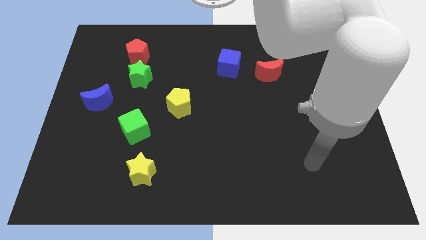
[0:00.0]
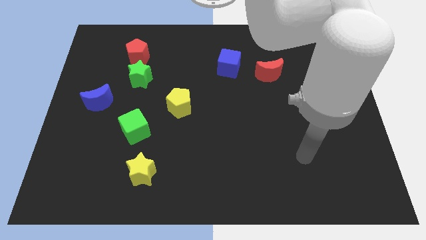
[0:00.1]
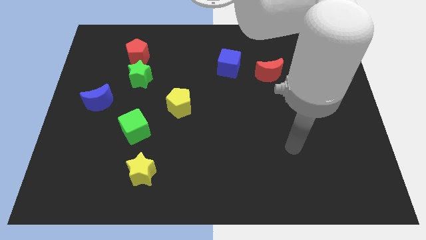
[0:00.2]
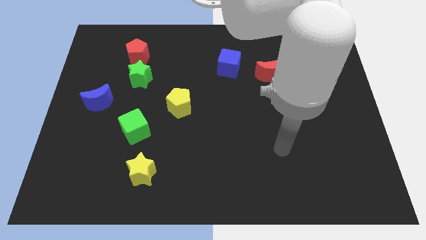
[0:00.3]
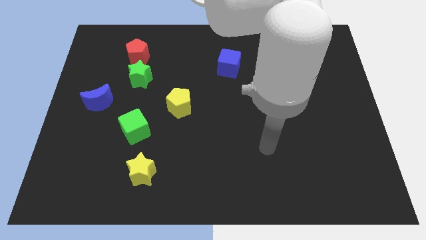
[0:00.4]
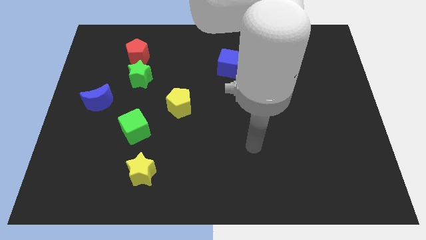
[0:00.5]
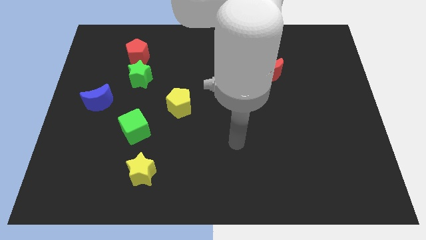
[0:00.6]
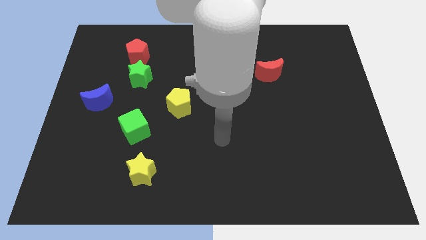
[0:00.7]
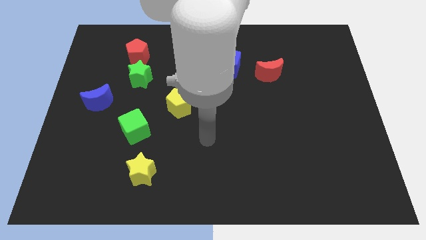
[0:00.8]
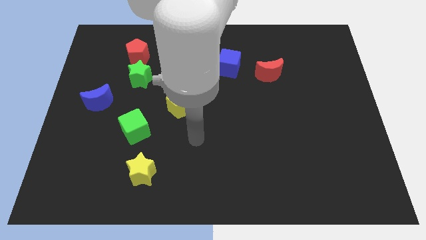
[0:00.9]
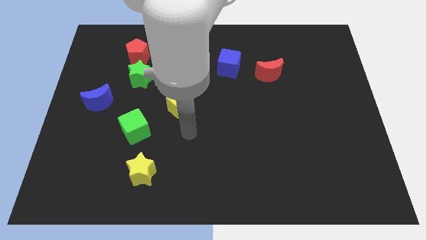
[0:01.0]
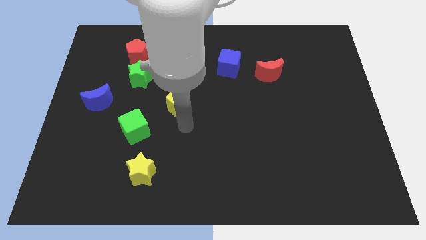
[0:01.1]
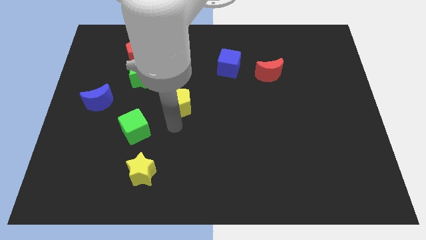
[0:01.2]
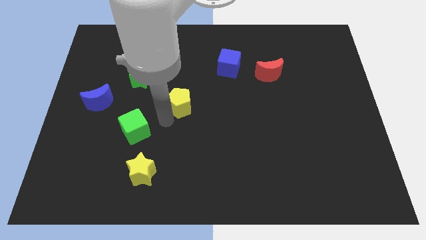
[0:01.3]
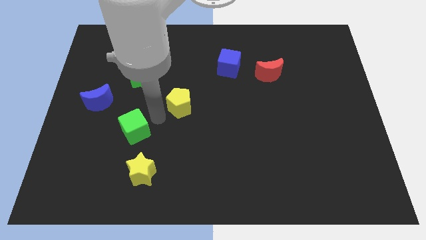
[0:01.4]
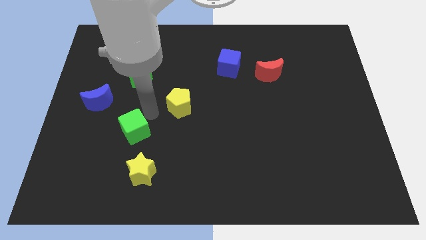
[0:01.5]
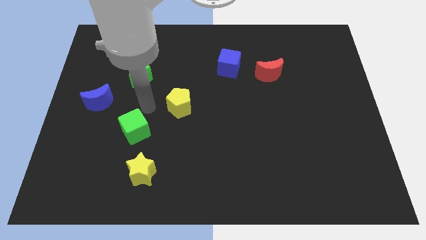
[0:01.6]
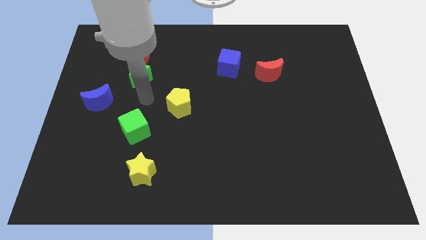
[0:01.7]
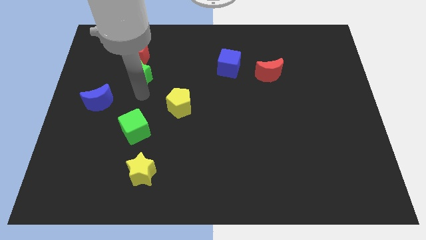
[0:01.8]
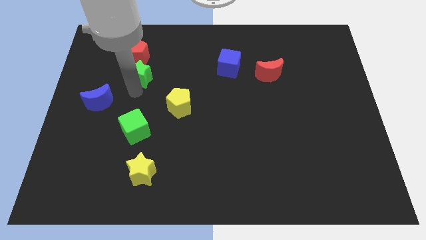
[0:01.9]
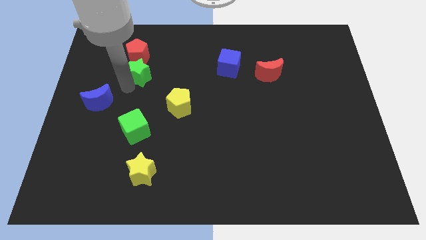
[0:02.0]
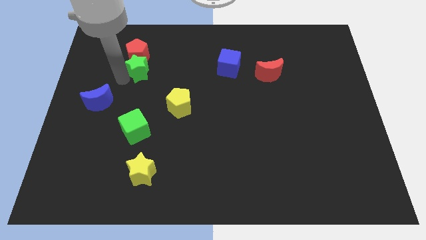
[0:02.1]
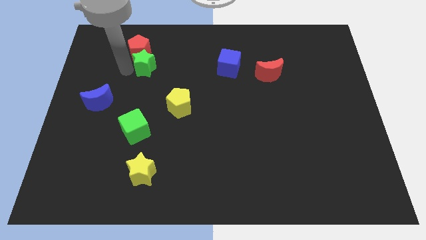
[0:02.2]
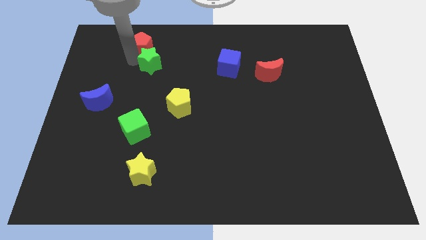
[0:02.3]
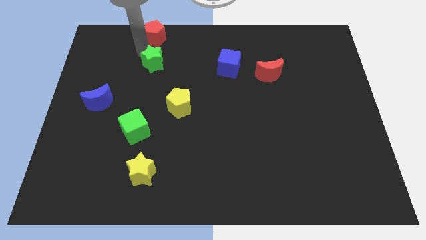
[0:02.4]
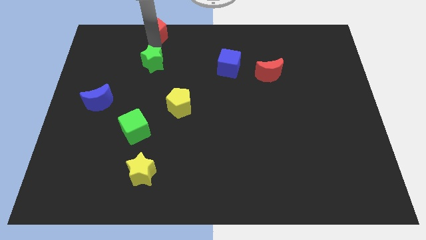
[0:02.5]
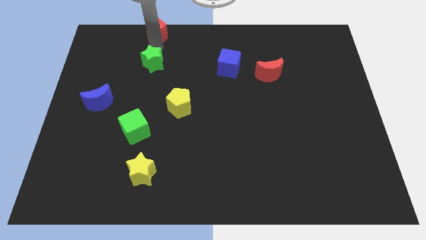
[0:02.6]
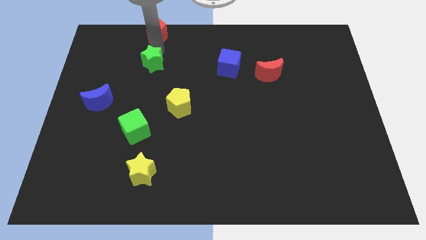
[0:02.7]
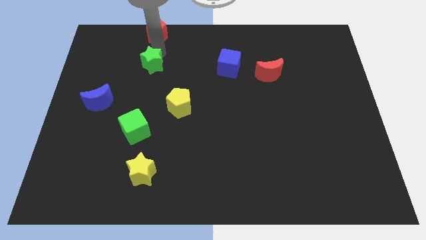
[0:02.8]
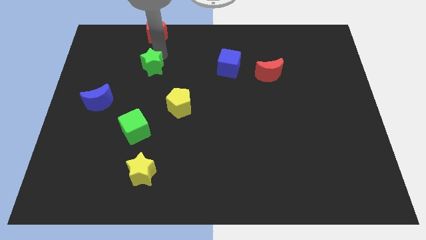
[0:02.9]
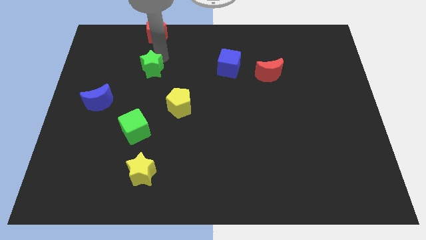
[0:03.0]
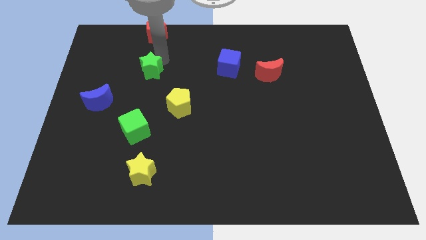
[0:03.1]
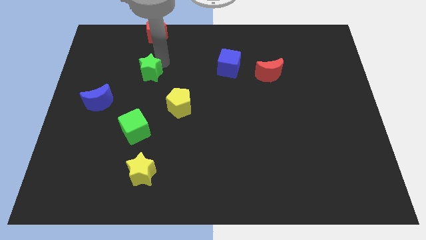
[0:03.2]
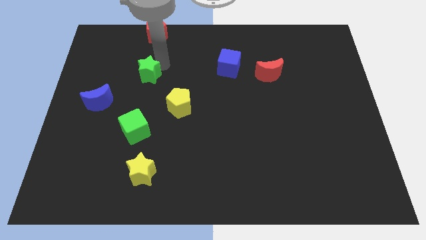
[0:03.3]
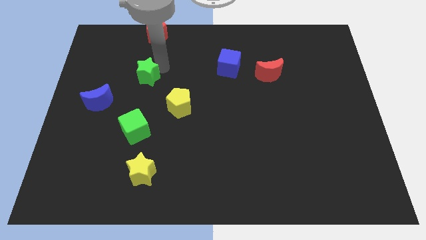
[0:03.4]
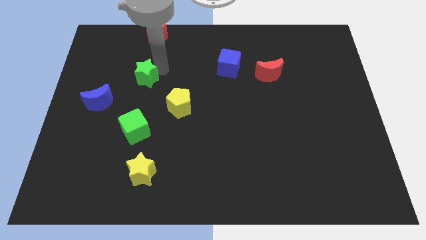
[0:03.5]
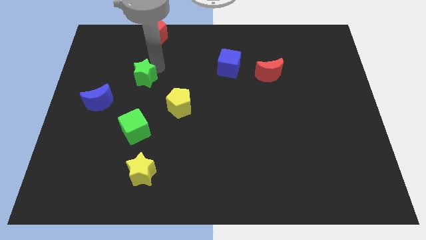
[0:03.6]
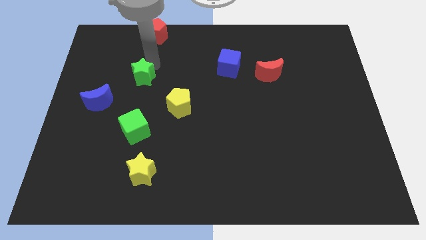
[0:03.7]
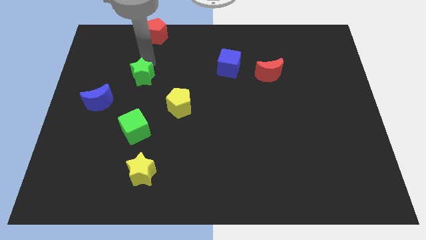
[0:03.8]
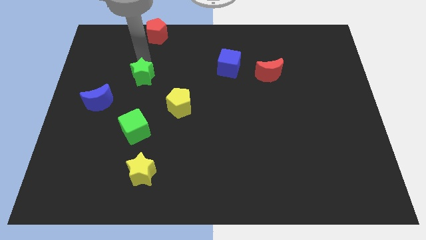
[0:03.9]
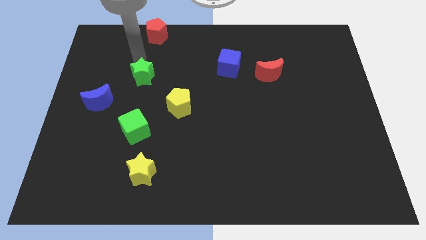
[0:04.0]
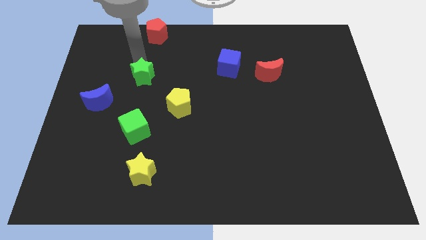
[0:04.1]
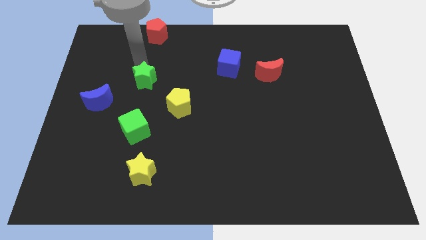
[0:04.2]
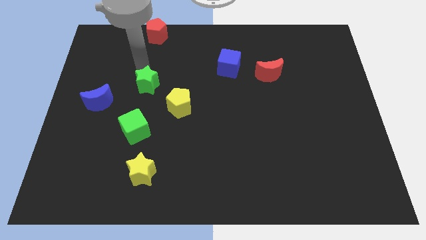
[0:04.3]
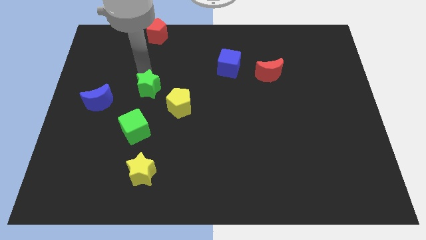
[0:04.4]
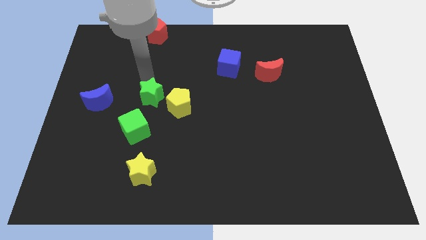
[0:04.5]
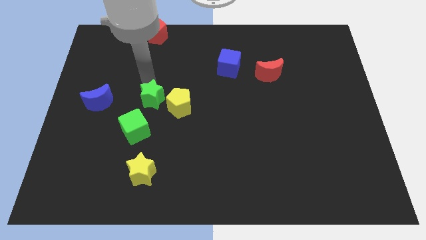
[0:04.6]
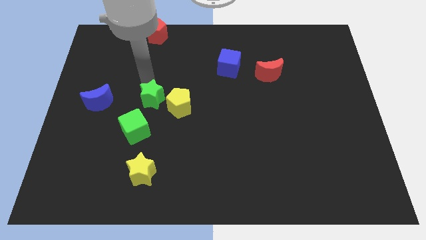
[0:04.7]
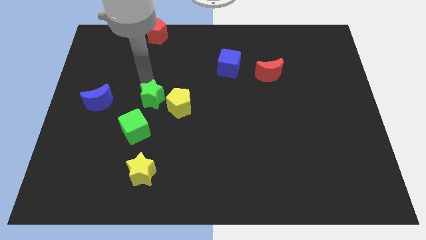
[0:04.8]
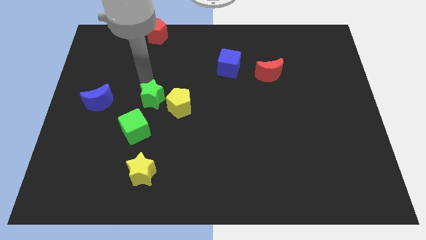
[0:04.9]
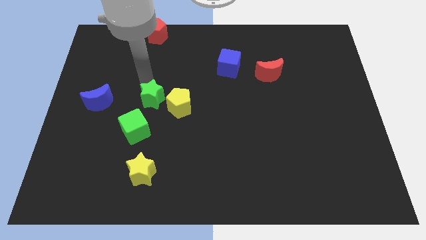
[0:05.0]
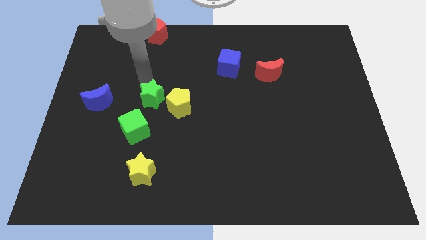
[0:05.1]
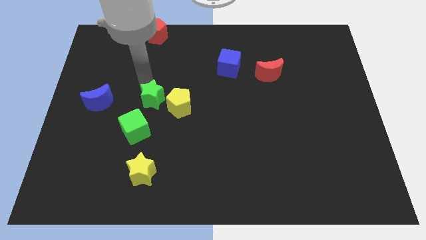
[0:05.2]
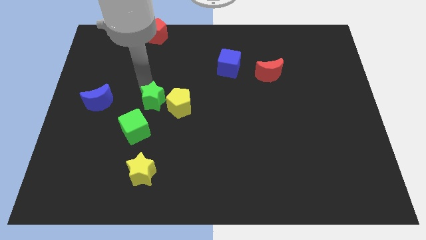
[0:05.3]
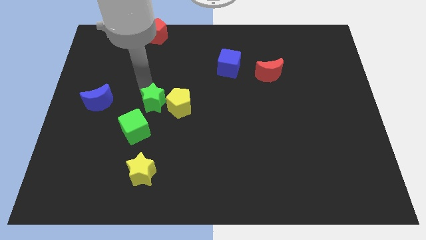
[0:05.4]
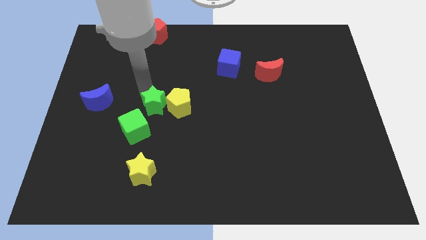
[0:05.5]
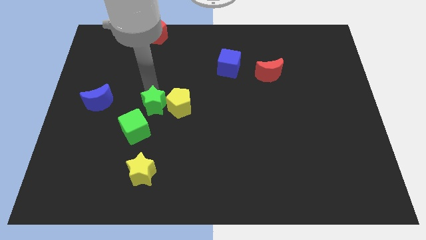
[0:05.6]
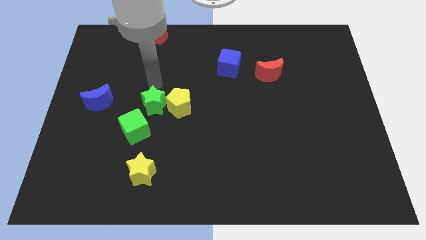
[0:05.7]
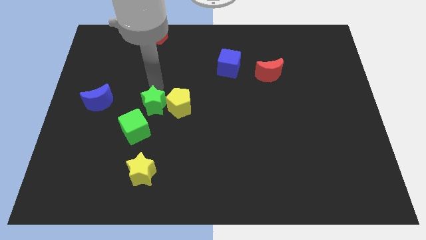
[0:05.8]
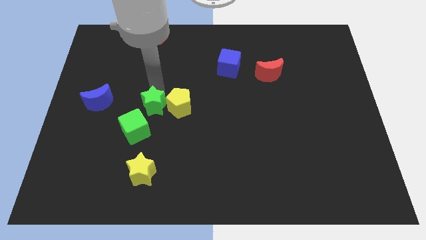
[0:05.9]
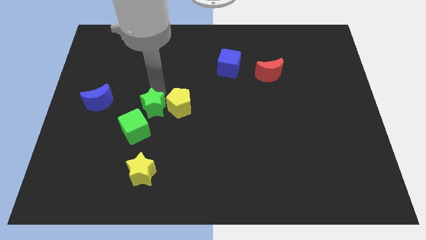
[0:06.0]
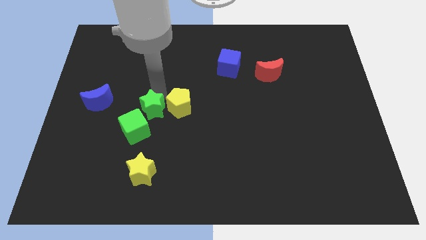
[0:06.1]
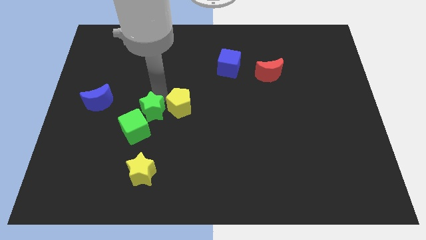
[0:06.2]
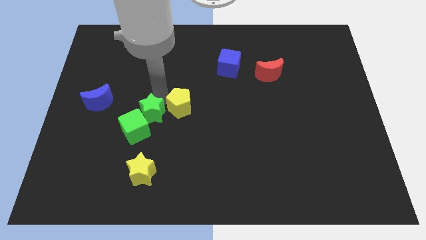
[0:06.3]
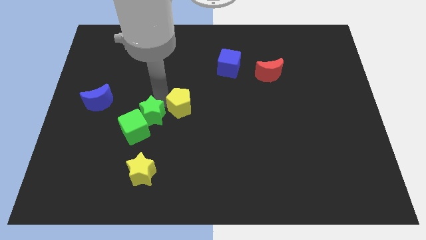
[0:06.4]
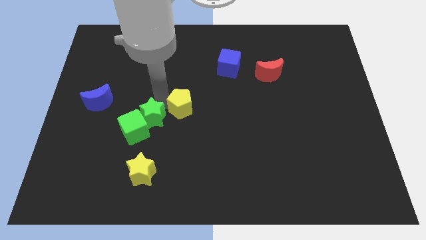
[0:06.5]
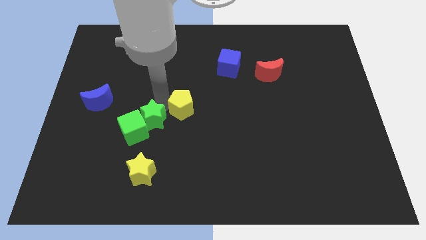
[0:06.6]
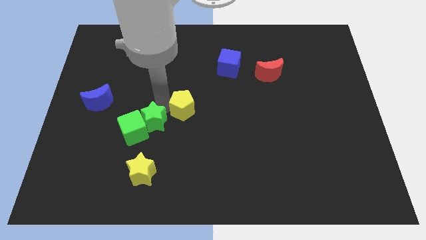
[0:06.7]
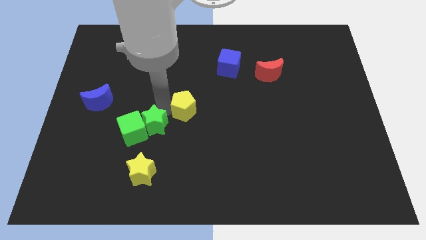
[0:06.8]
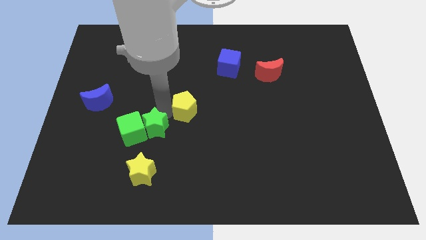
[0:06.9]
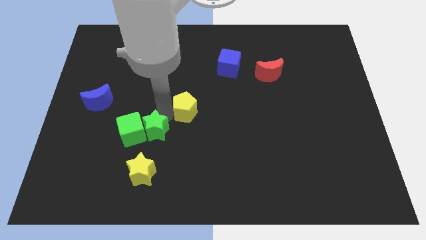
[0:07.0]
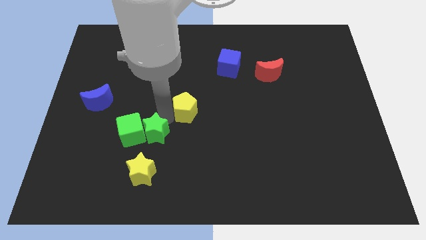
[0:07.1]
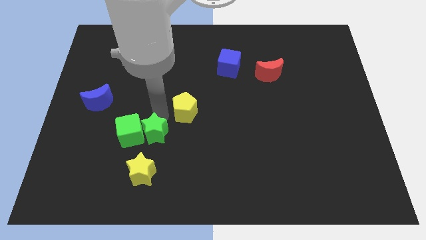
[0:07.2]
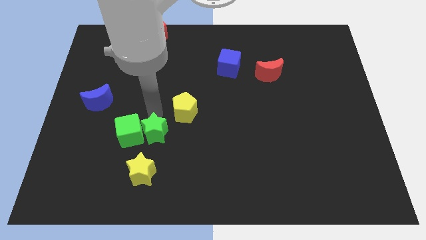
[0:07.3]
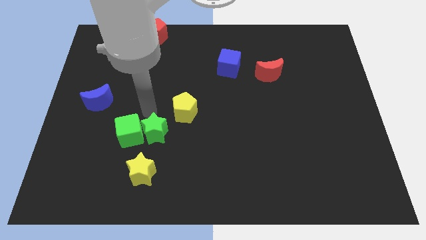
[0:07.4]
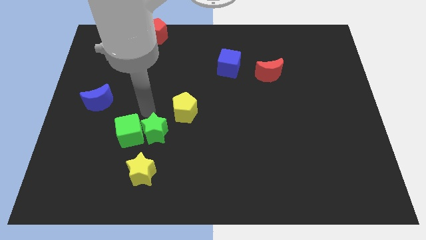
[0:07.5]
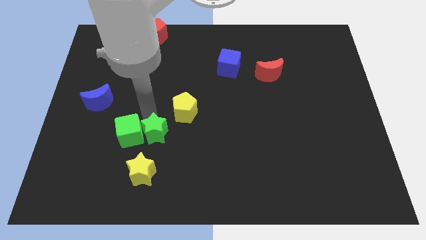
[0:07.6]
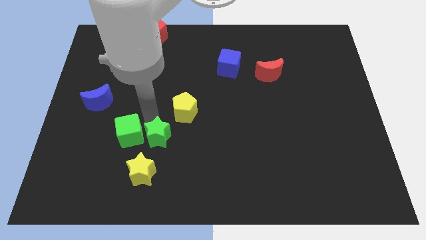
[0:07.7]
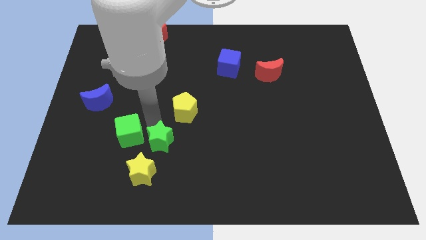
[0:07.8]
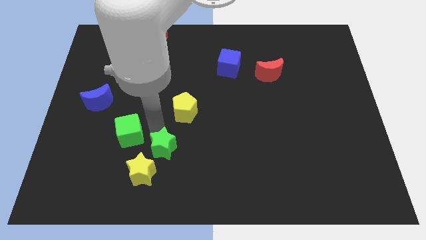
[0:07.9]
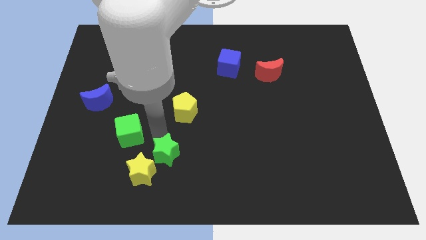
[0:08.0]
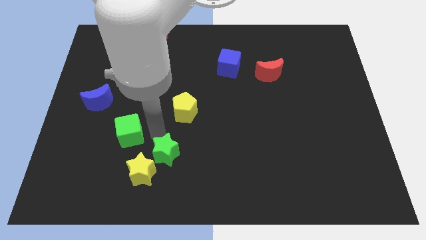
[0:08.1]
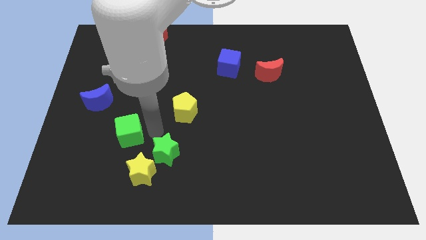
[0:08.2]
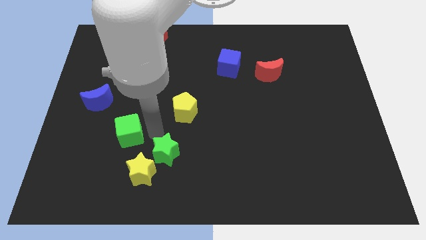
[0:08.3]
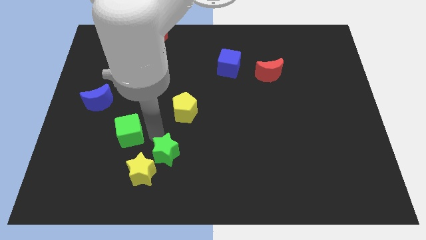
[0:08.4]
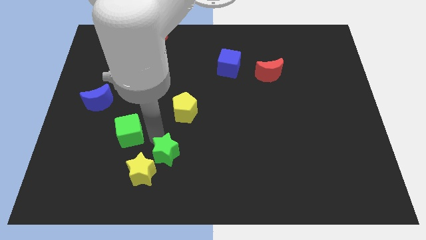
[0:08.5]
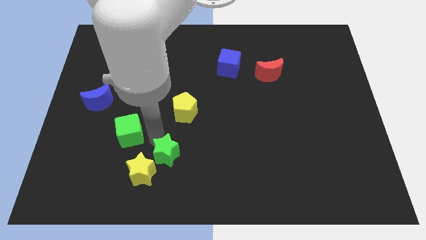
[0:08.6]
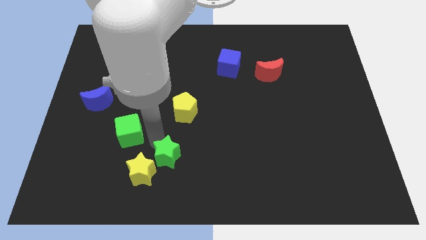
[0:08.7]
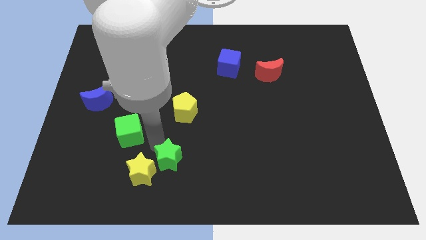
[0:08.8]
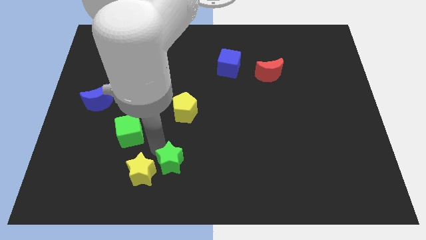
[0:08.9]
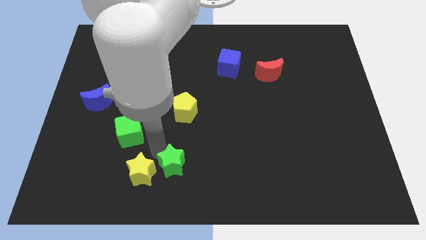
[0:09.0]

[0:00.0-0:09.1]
slide the green star to the bottom
